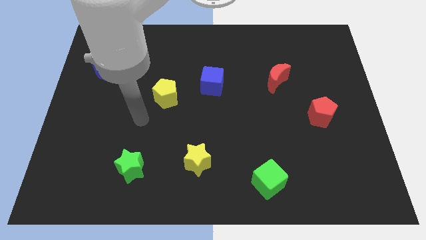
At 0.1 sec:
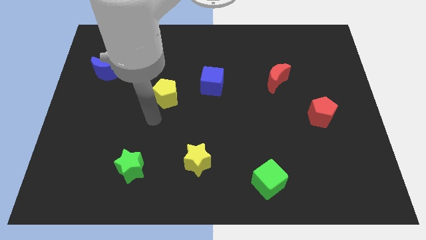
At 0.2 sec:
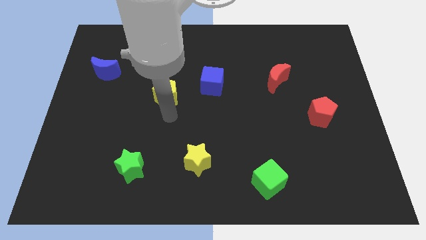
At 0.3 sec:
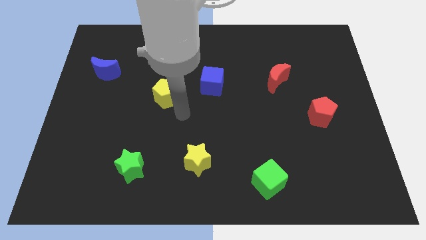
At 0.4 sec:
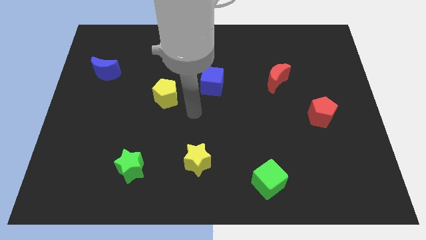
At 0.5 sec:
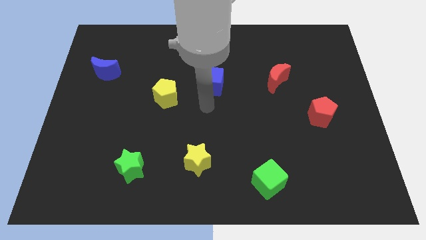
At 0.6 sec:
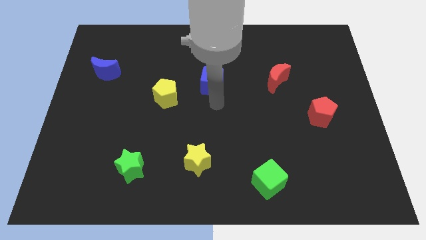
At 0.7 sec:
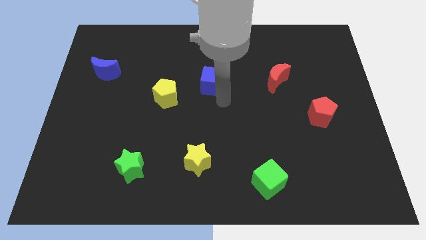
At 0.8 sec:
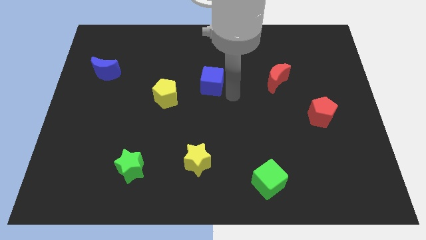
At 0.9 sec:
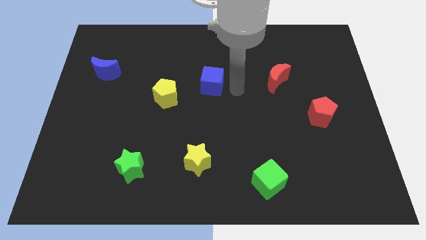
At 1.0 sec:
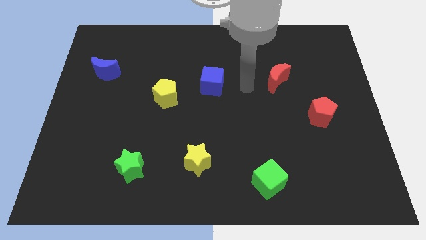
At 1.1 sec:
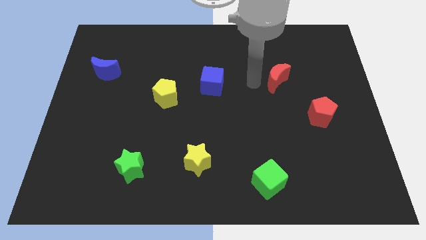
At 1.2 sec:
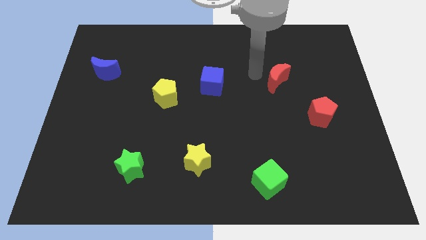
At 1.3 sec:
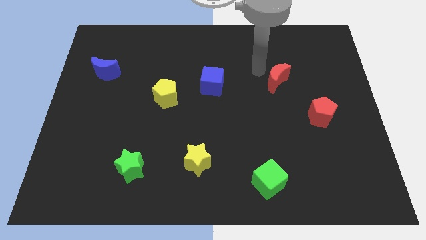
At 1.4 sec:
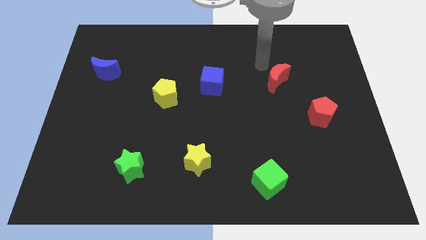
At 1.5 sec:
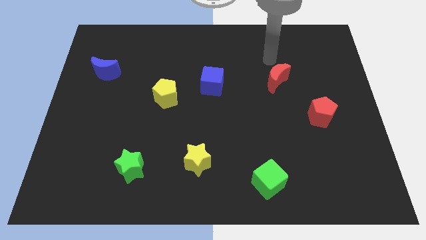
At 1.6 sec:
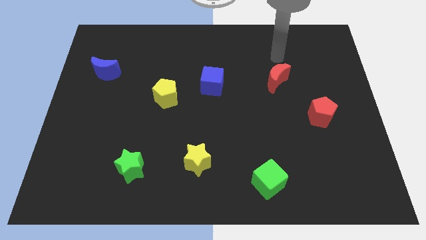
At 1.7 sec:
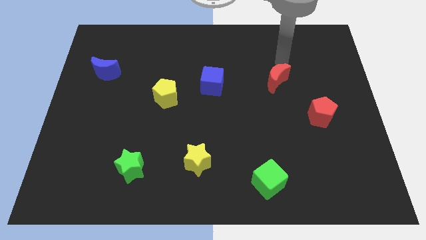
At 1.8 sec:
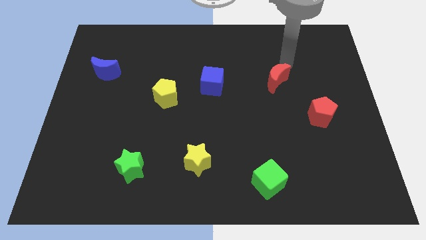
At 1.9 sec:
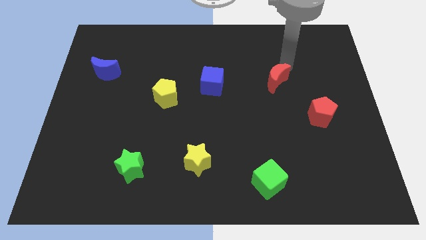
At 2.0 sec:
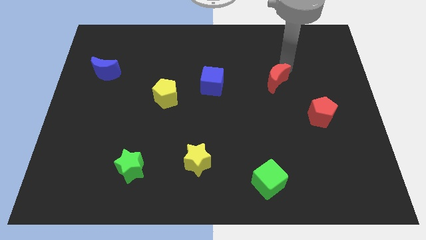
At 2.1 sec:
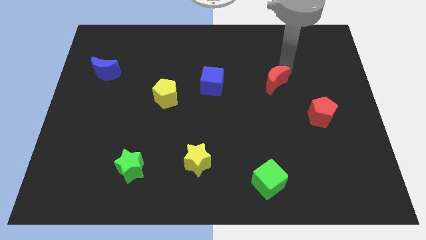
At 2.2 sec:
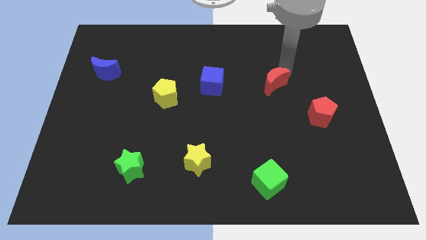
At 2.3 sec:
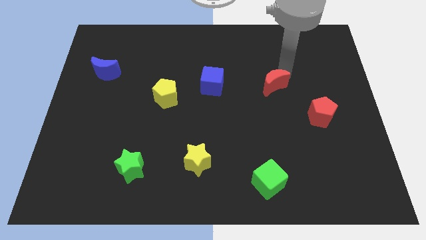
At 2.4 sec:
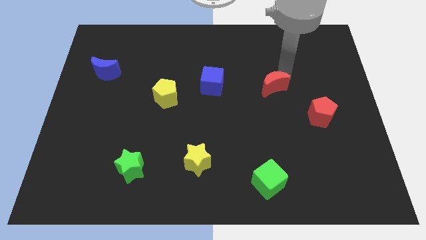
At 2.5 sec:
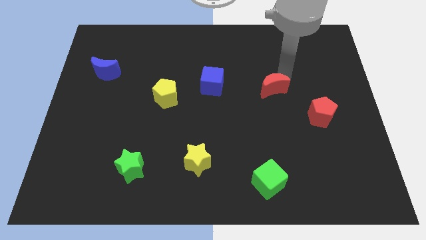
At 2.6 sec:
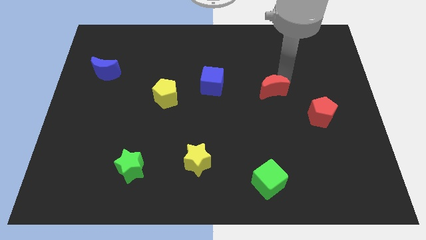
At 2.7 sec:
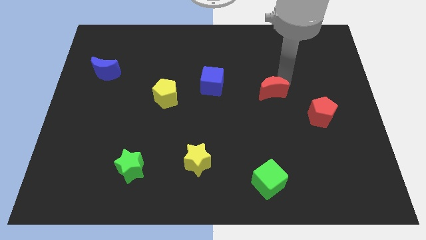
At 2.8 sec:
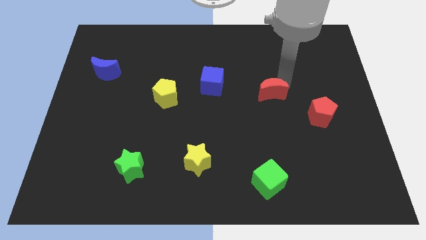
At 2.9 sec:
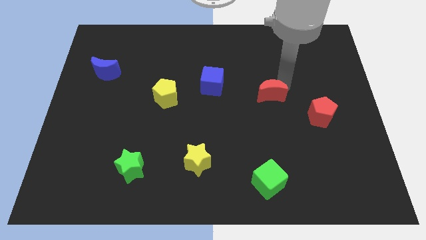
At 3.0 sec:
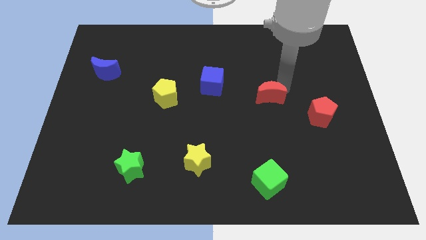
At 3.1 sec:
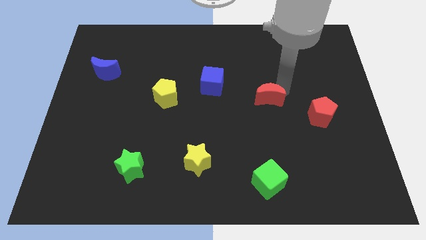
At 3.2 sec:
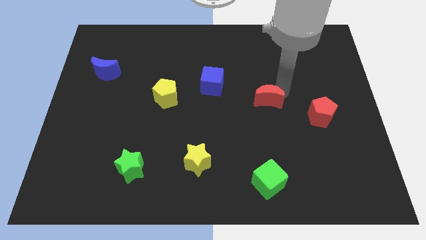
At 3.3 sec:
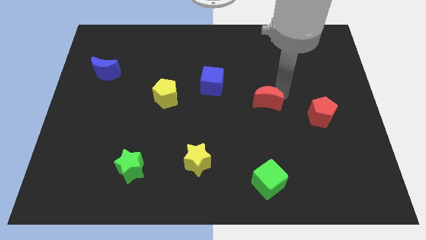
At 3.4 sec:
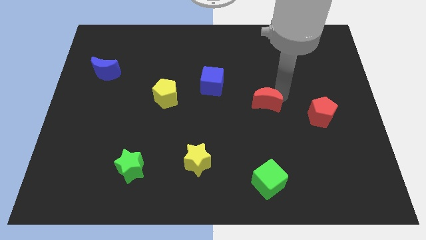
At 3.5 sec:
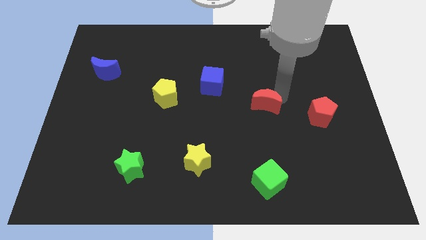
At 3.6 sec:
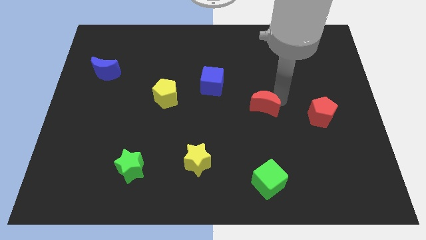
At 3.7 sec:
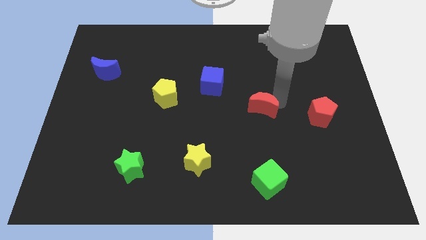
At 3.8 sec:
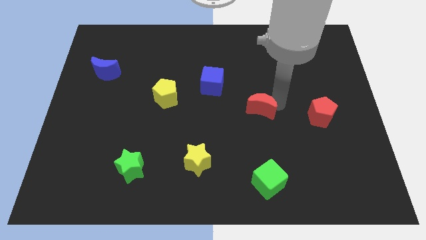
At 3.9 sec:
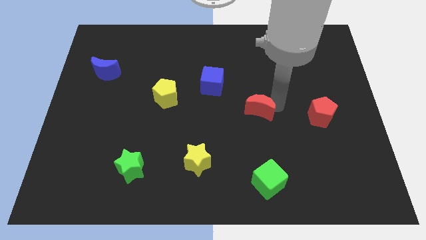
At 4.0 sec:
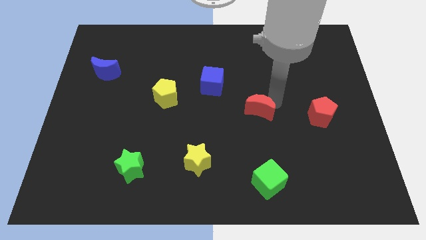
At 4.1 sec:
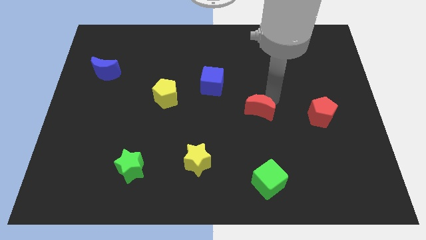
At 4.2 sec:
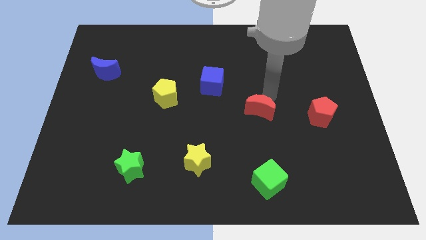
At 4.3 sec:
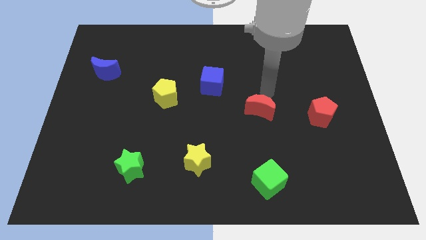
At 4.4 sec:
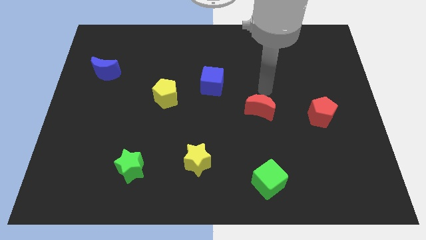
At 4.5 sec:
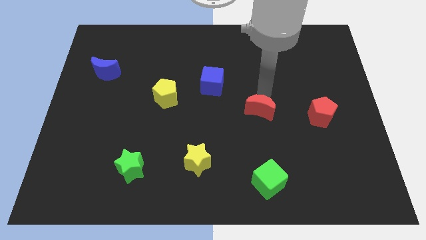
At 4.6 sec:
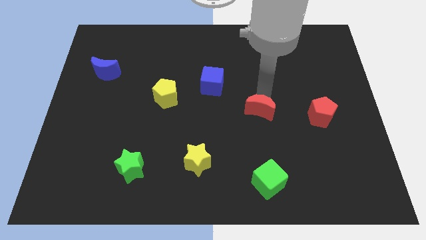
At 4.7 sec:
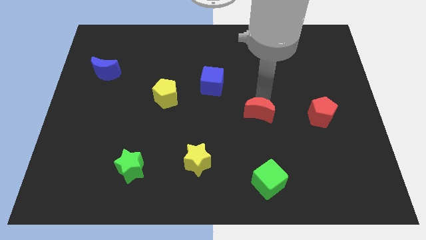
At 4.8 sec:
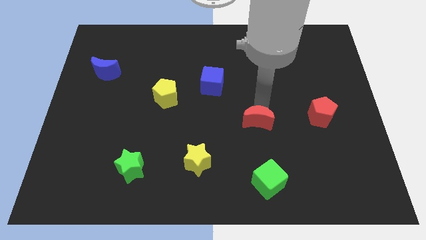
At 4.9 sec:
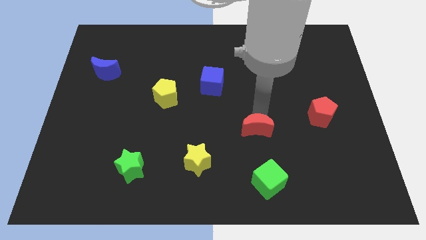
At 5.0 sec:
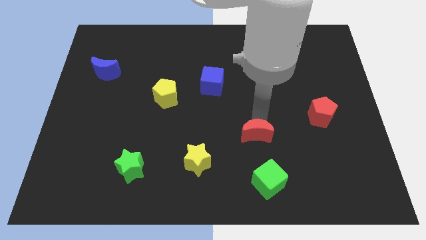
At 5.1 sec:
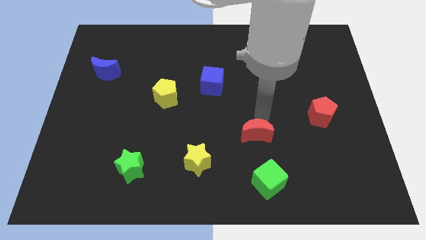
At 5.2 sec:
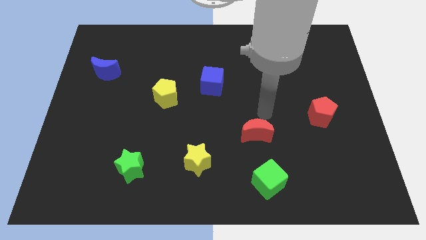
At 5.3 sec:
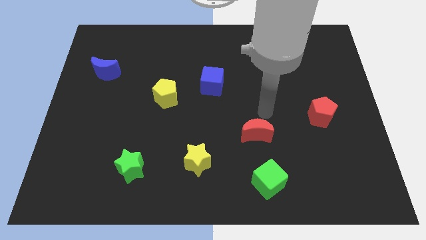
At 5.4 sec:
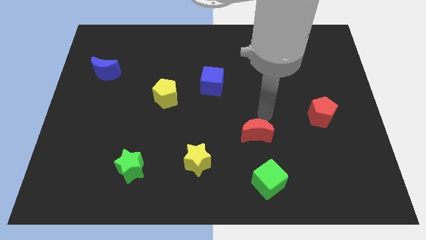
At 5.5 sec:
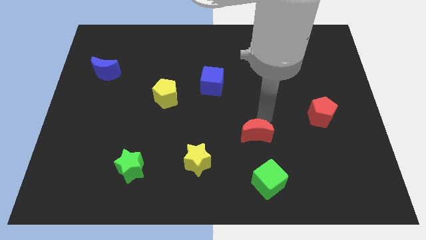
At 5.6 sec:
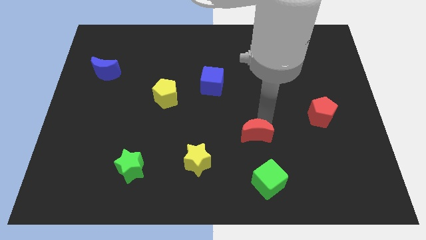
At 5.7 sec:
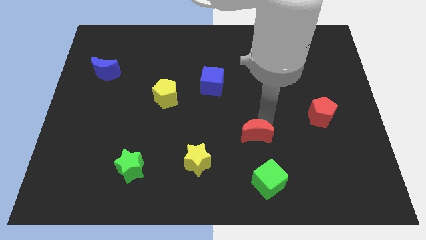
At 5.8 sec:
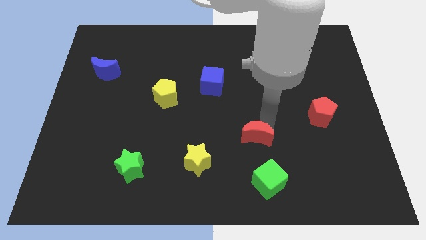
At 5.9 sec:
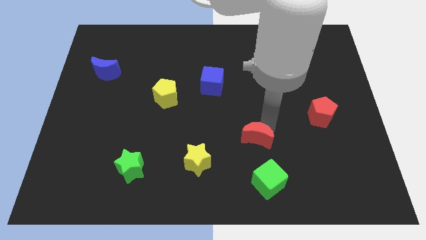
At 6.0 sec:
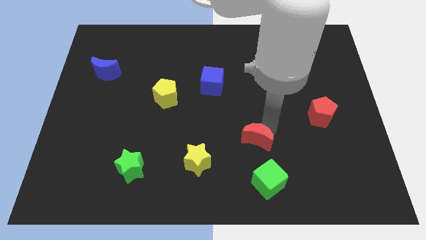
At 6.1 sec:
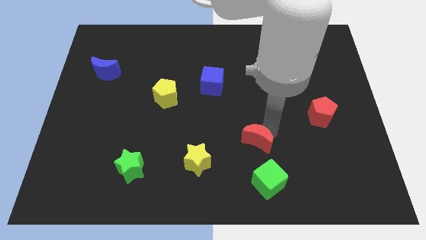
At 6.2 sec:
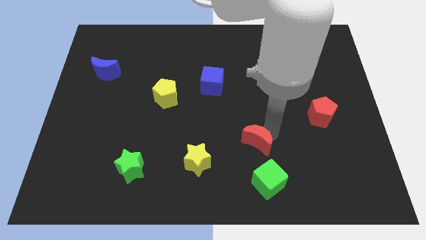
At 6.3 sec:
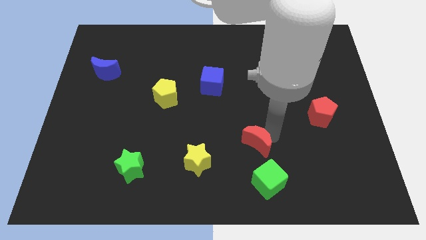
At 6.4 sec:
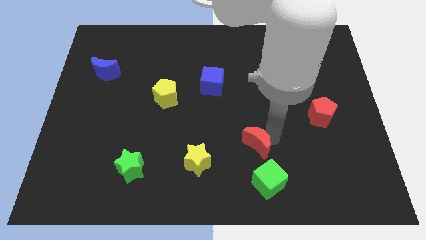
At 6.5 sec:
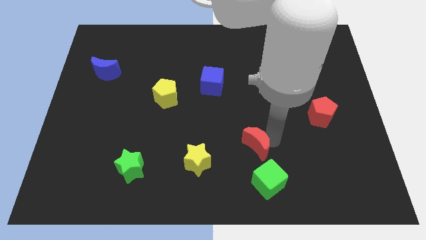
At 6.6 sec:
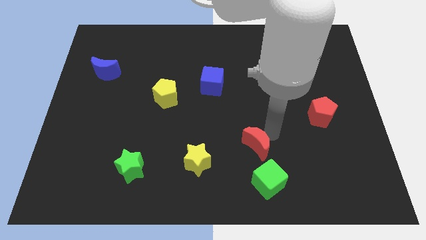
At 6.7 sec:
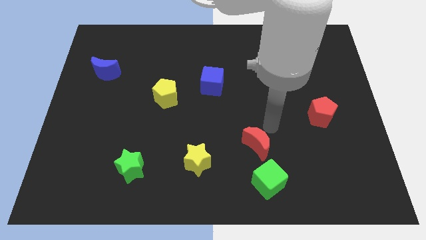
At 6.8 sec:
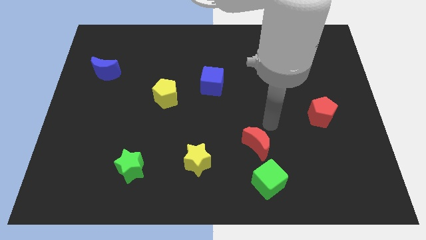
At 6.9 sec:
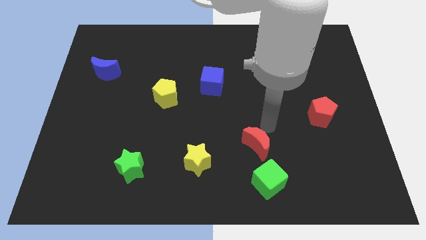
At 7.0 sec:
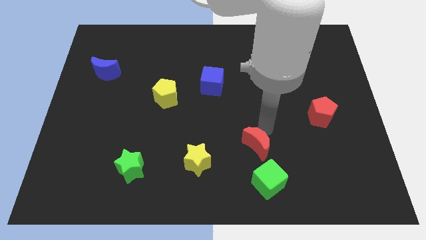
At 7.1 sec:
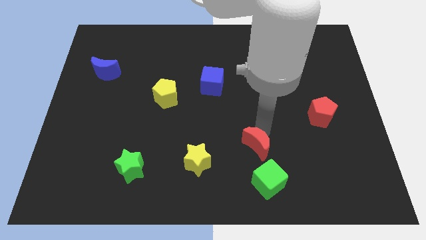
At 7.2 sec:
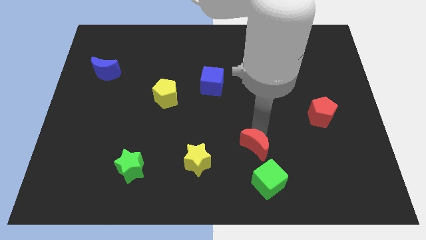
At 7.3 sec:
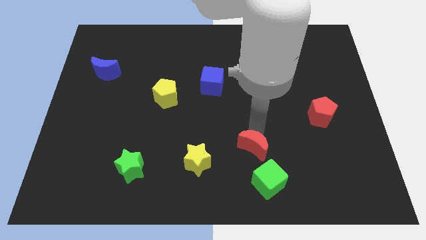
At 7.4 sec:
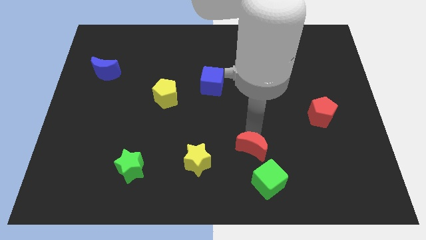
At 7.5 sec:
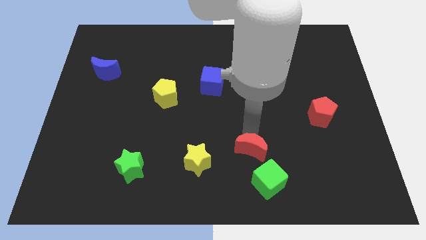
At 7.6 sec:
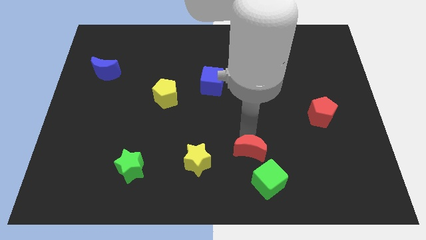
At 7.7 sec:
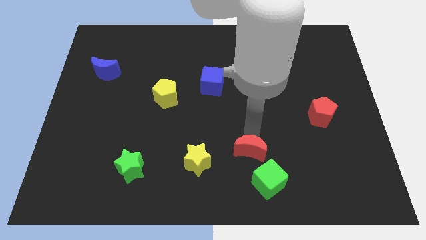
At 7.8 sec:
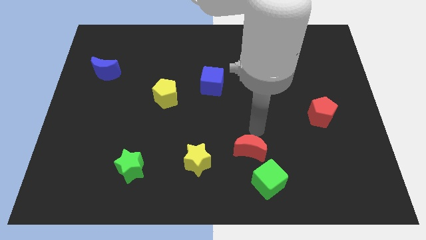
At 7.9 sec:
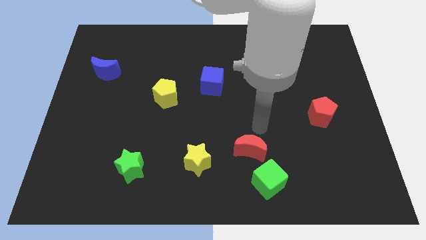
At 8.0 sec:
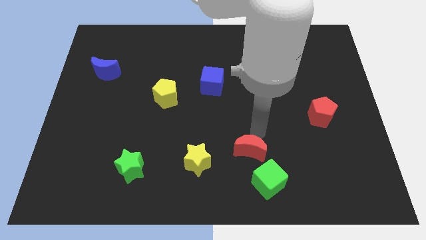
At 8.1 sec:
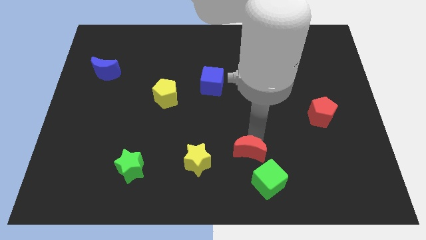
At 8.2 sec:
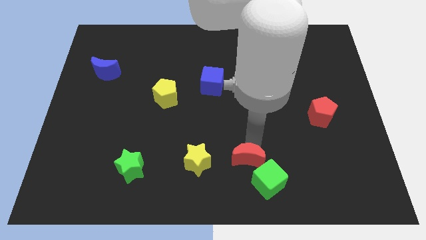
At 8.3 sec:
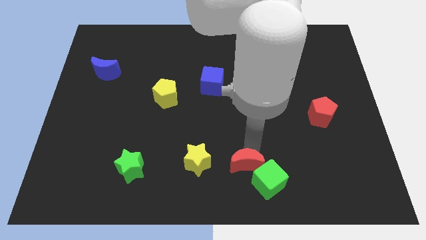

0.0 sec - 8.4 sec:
move the red moon to the bottom
